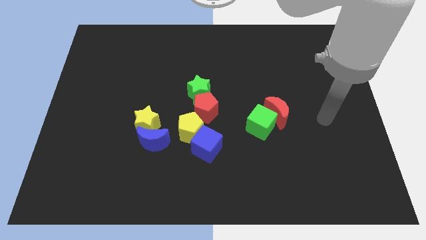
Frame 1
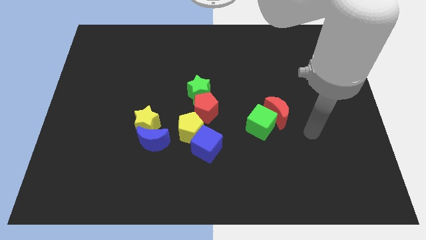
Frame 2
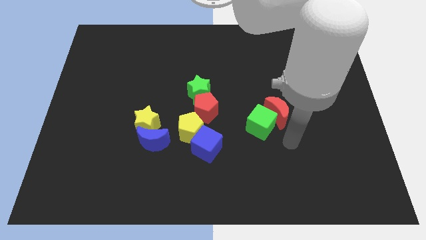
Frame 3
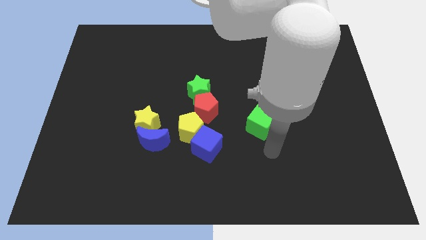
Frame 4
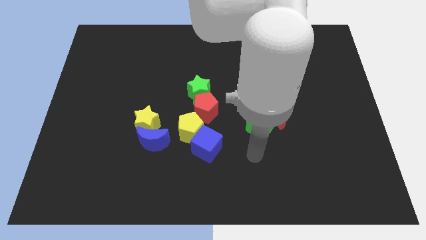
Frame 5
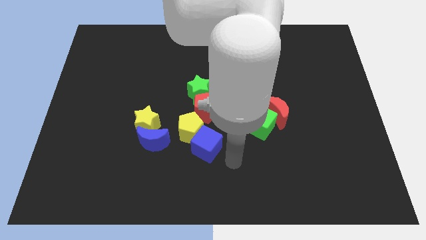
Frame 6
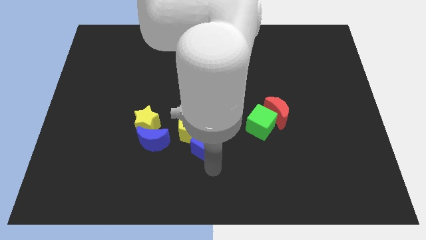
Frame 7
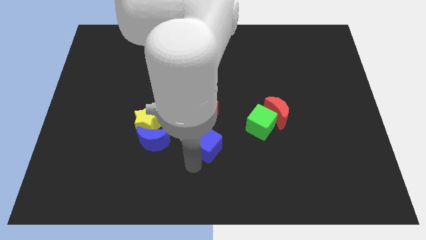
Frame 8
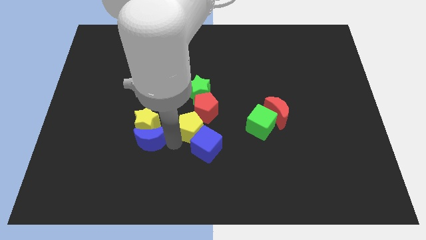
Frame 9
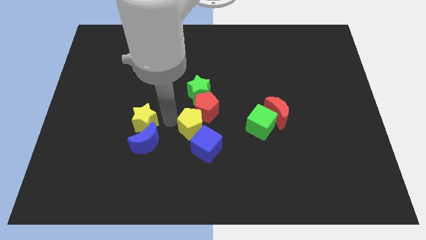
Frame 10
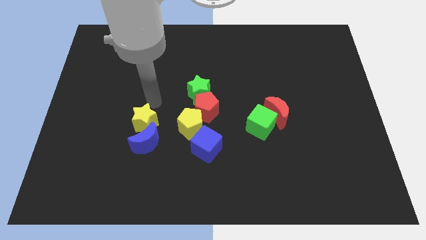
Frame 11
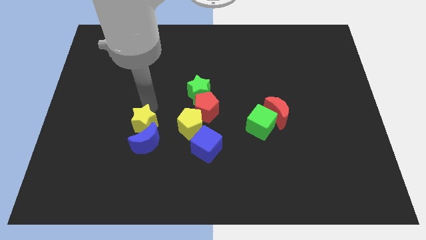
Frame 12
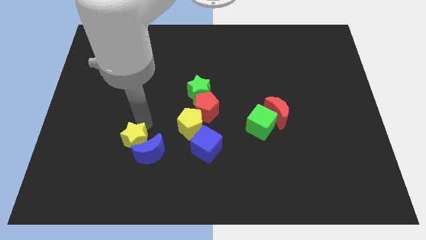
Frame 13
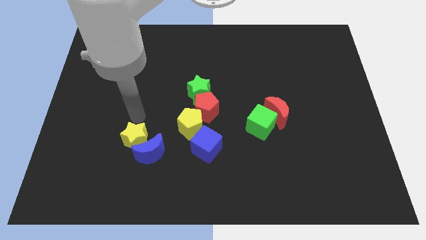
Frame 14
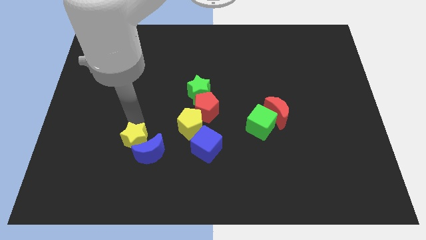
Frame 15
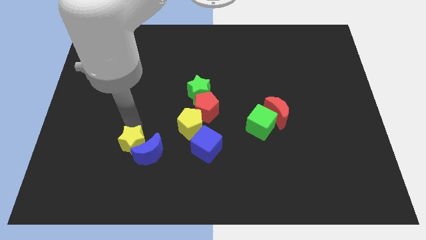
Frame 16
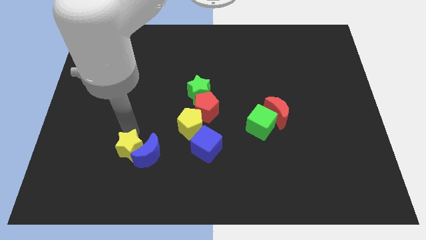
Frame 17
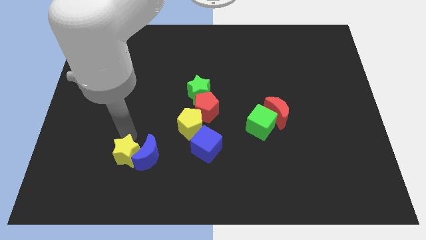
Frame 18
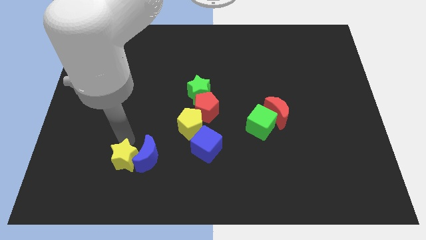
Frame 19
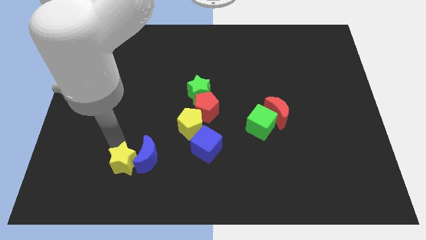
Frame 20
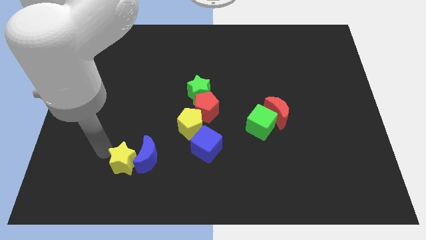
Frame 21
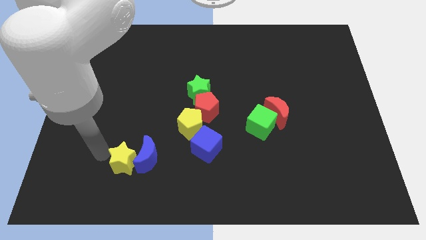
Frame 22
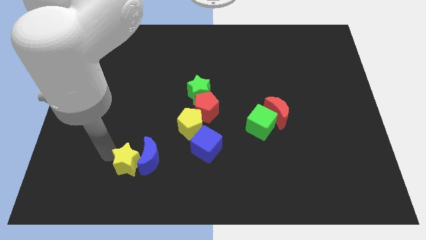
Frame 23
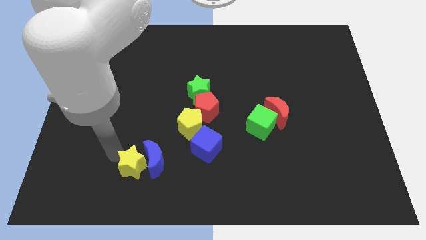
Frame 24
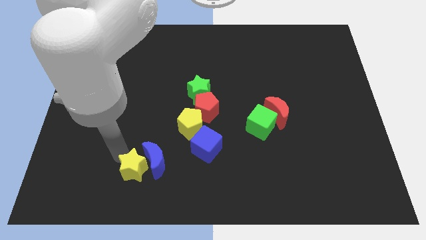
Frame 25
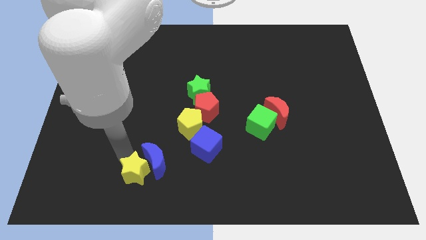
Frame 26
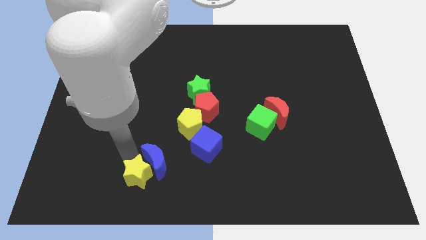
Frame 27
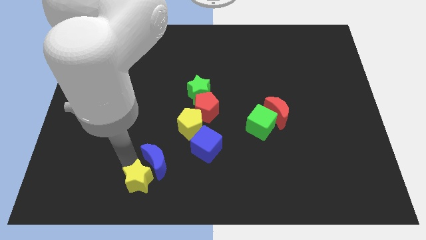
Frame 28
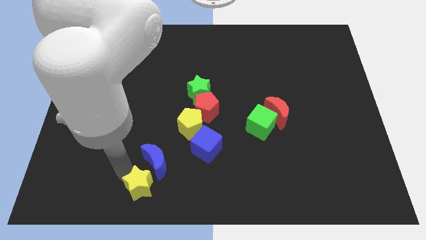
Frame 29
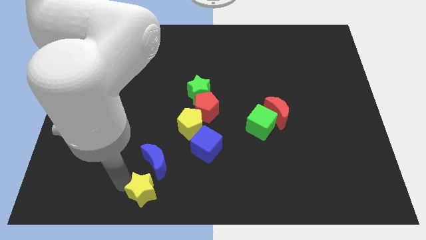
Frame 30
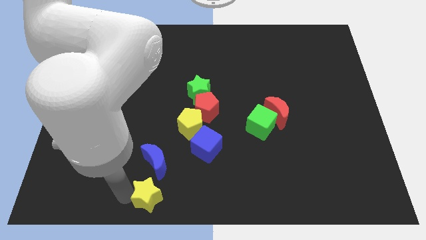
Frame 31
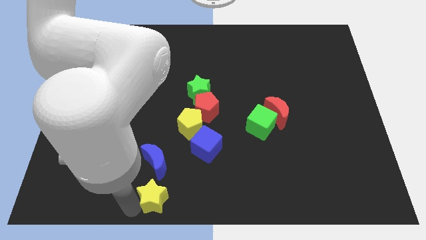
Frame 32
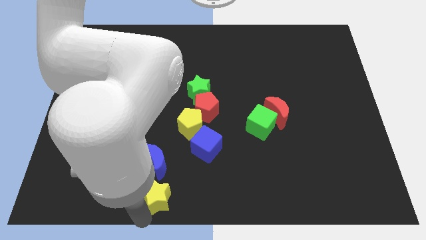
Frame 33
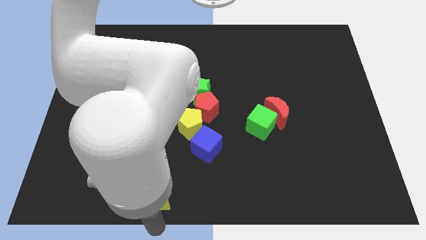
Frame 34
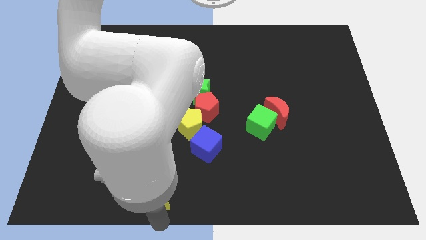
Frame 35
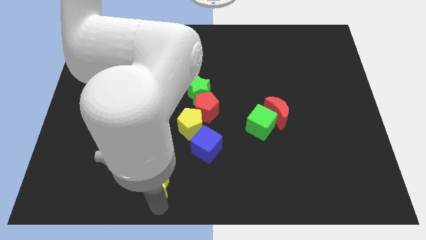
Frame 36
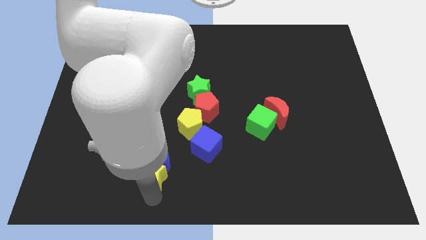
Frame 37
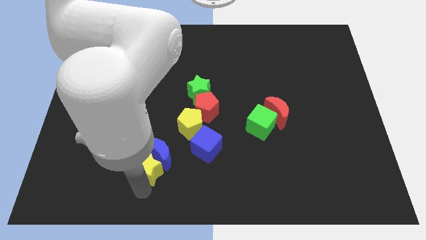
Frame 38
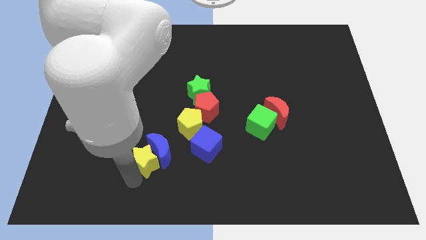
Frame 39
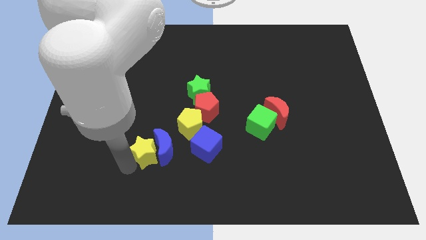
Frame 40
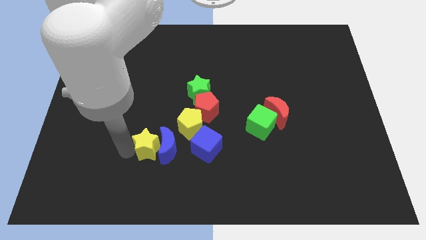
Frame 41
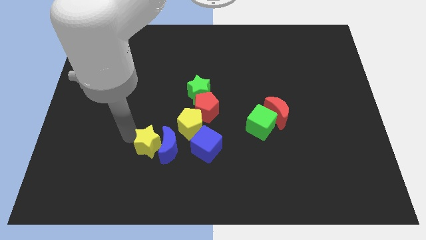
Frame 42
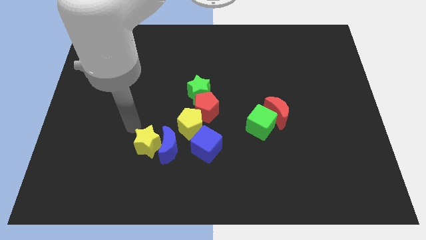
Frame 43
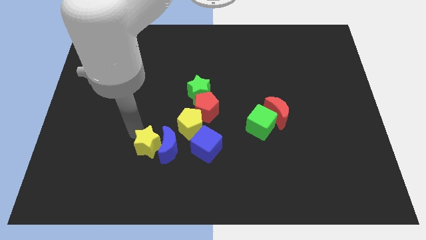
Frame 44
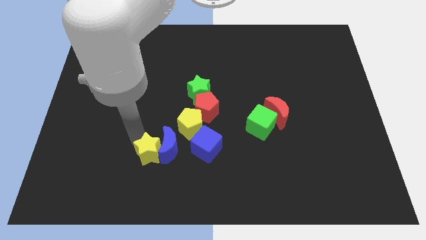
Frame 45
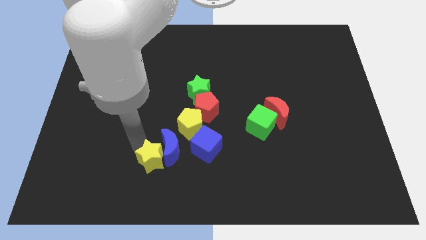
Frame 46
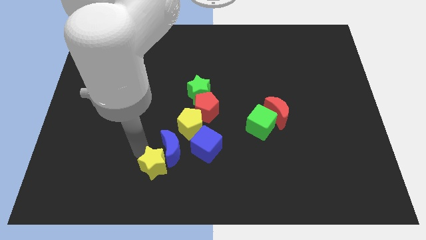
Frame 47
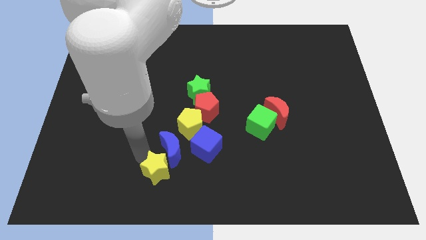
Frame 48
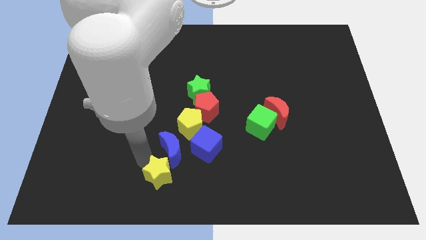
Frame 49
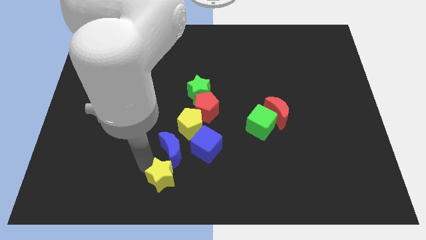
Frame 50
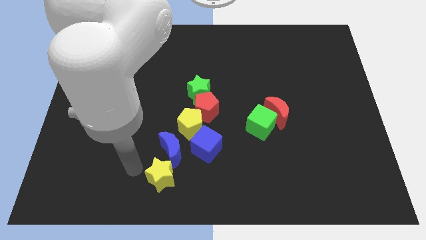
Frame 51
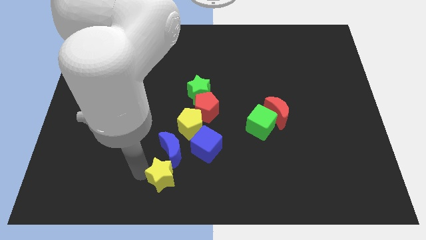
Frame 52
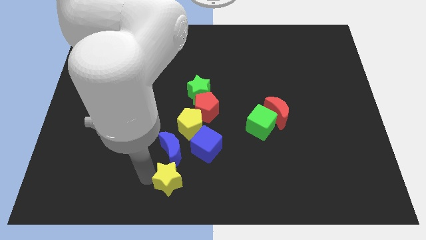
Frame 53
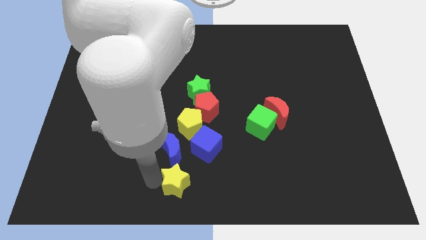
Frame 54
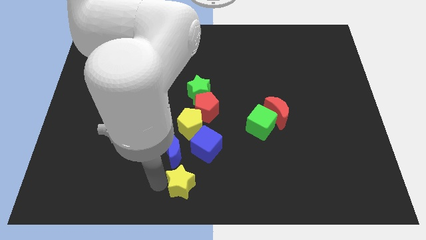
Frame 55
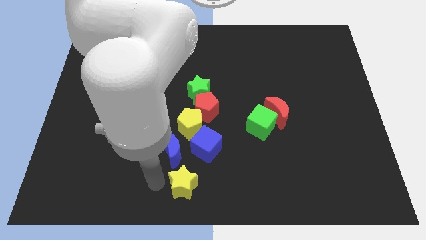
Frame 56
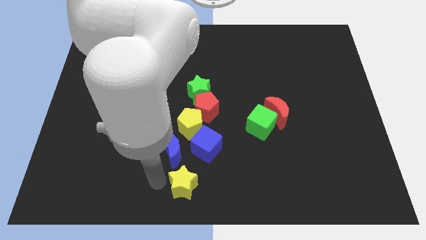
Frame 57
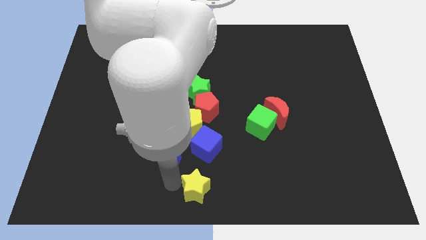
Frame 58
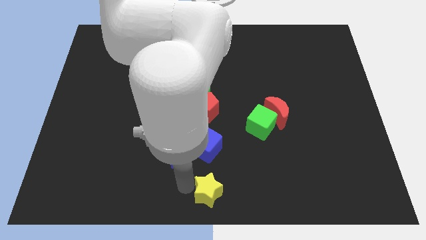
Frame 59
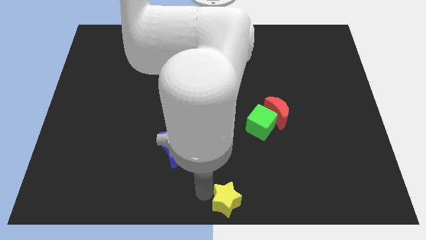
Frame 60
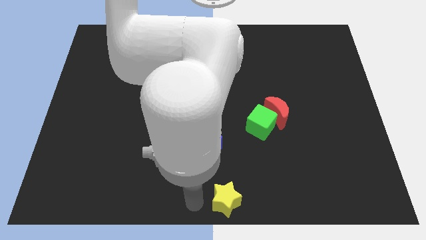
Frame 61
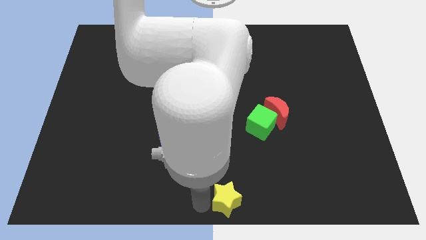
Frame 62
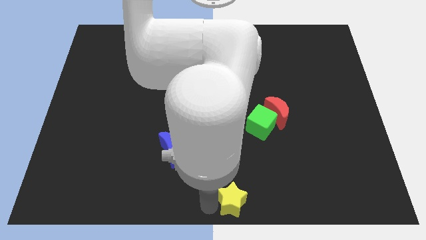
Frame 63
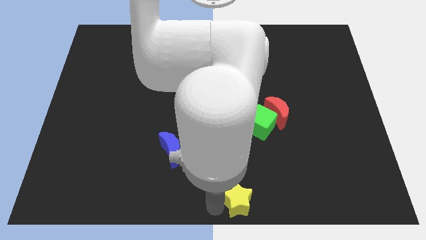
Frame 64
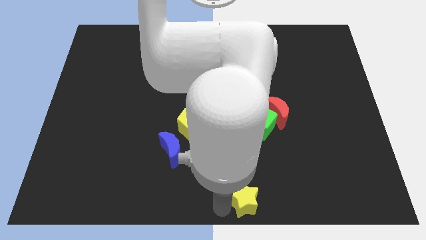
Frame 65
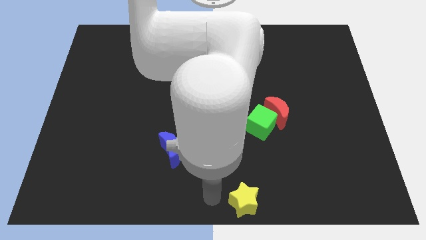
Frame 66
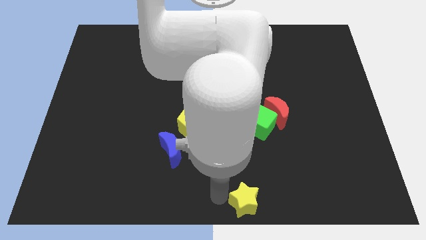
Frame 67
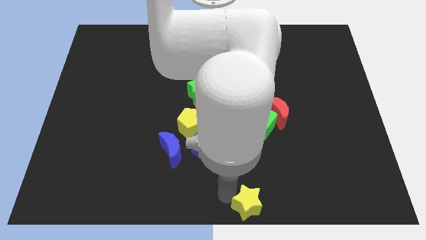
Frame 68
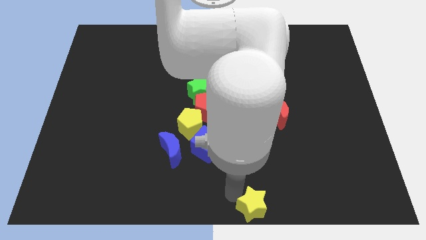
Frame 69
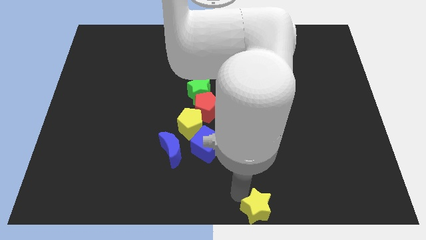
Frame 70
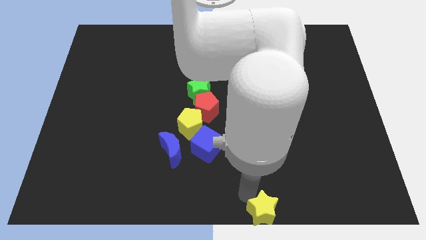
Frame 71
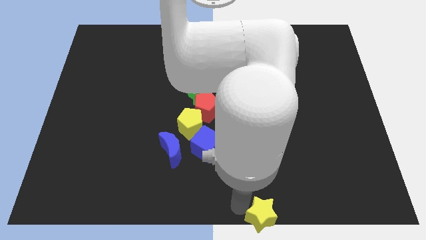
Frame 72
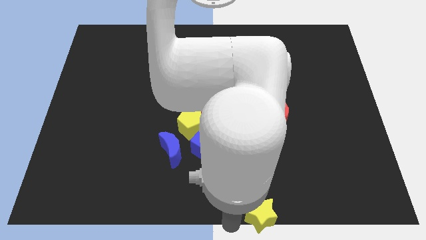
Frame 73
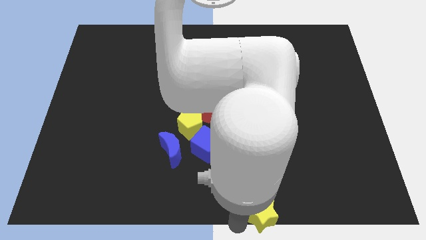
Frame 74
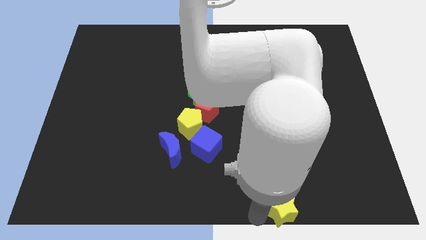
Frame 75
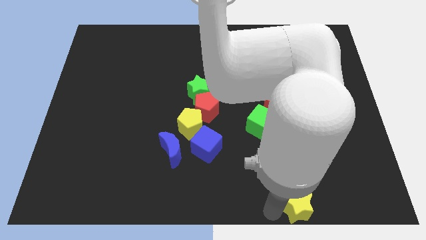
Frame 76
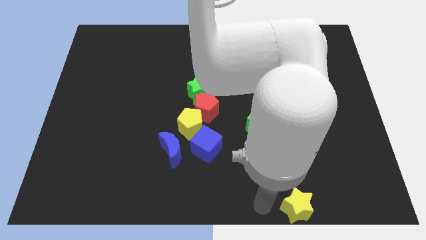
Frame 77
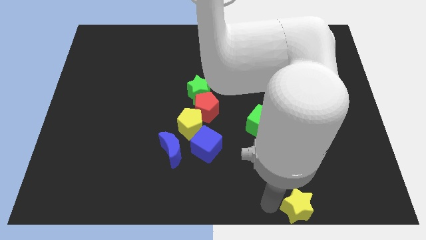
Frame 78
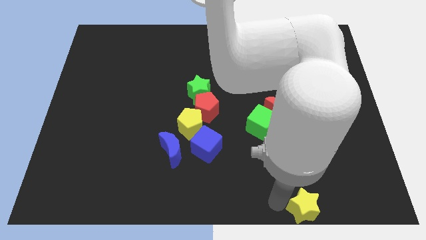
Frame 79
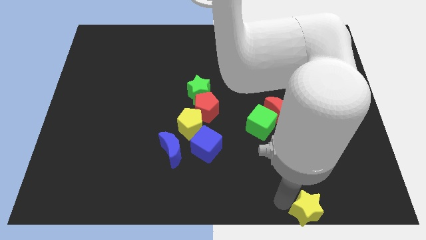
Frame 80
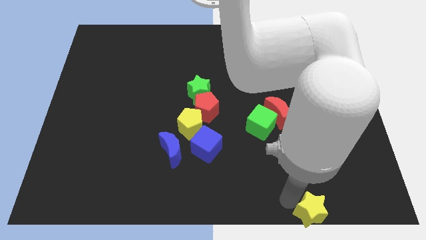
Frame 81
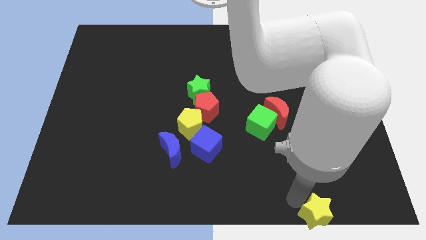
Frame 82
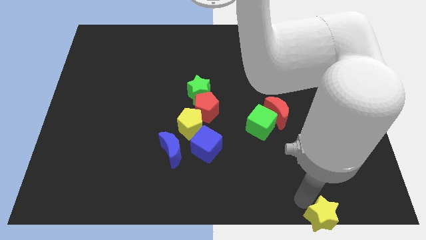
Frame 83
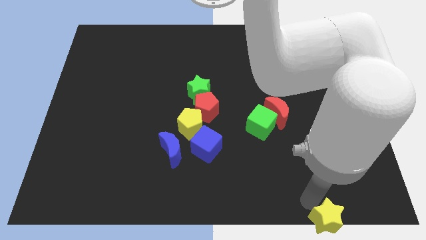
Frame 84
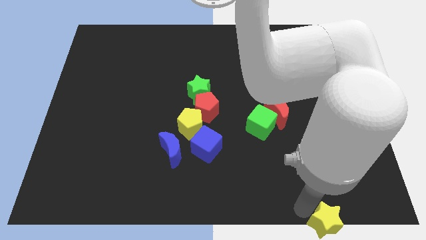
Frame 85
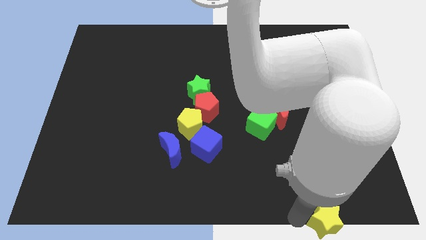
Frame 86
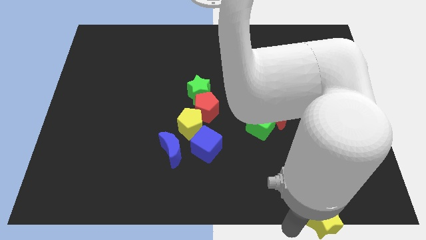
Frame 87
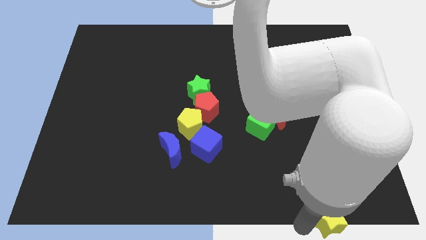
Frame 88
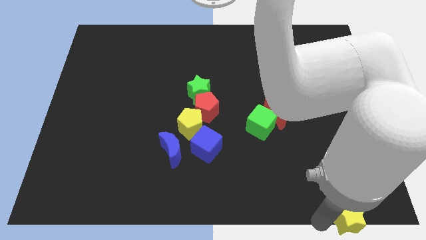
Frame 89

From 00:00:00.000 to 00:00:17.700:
slide the yellow star to the bottom right
